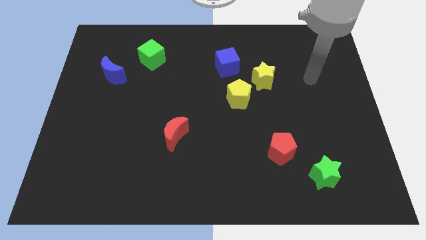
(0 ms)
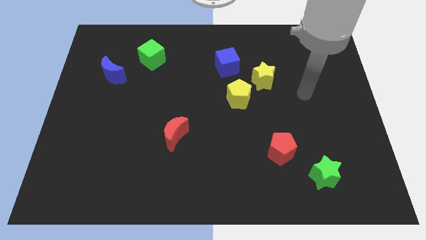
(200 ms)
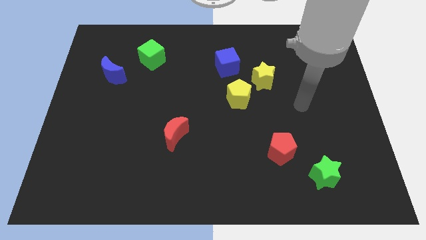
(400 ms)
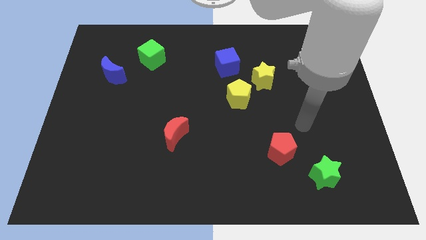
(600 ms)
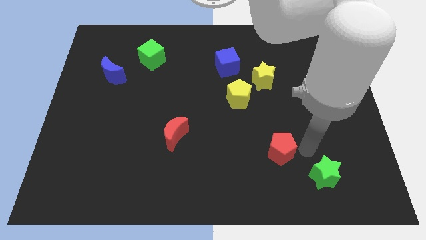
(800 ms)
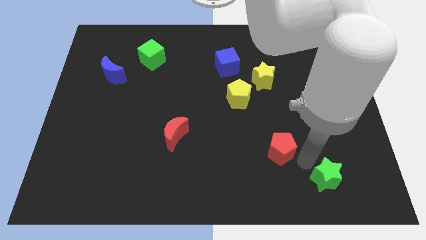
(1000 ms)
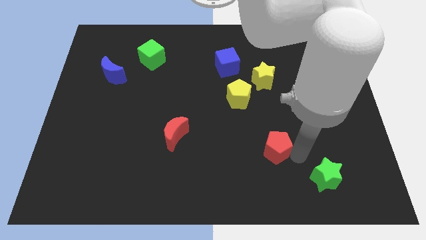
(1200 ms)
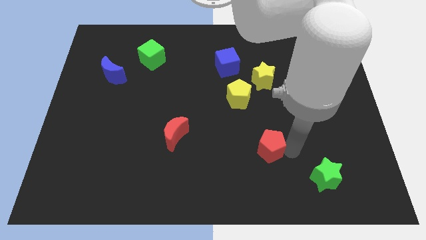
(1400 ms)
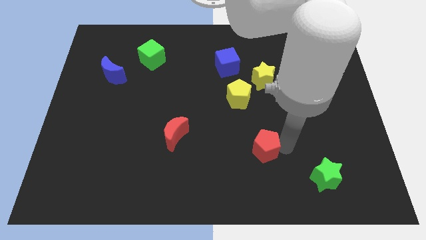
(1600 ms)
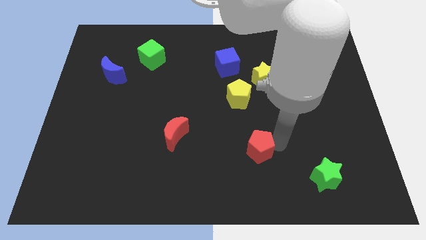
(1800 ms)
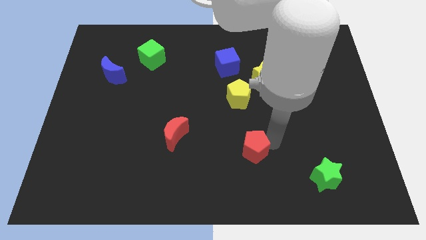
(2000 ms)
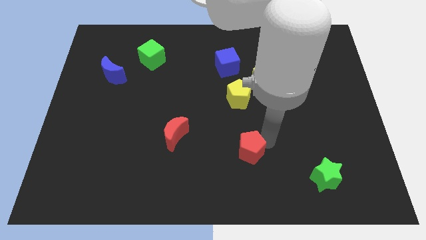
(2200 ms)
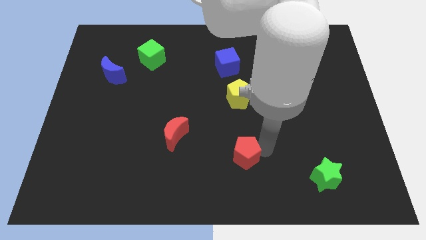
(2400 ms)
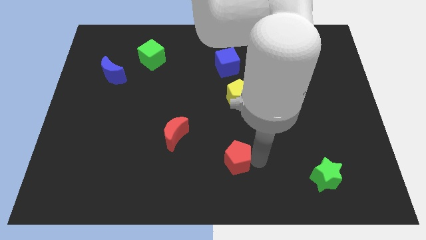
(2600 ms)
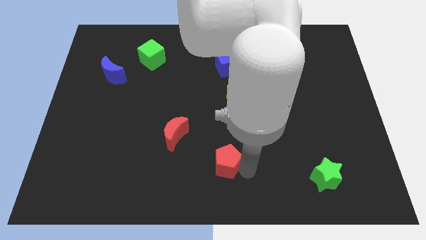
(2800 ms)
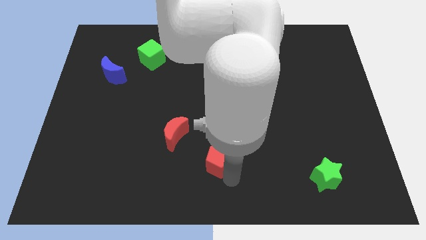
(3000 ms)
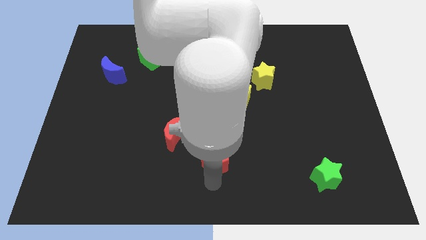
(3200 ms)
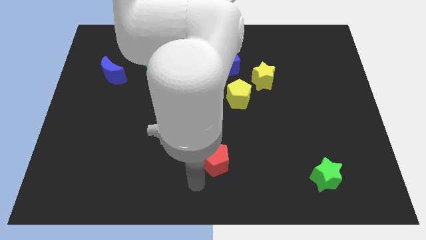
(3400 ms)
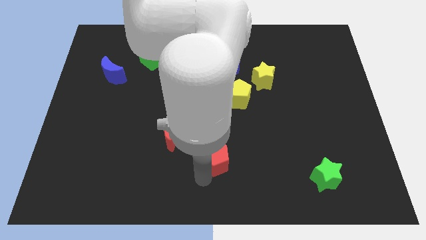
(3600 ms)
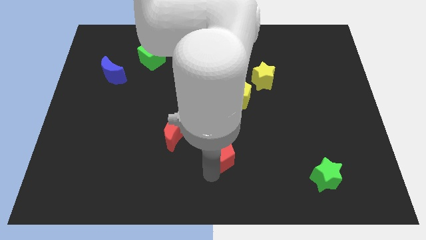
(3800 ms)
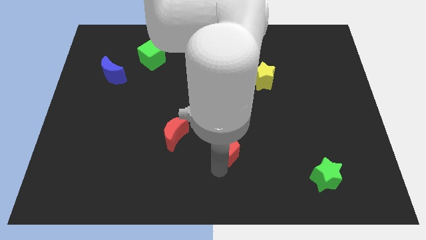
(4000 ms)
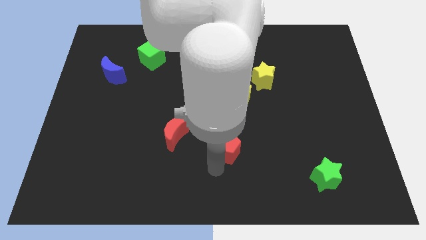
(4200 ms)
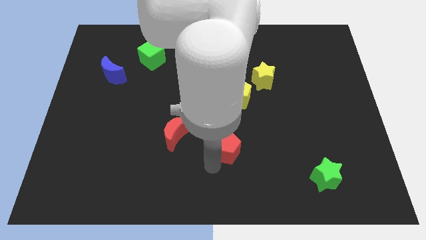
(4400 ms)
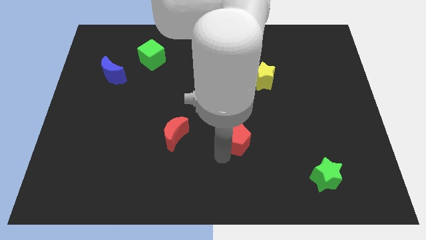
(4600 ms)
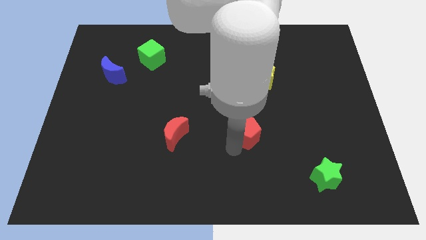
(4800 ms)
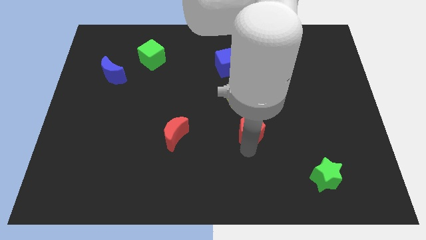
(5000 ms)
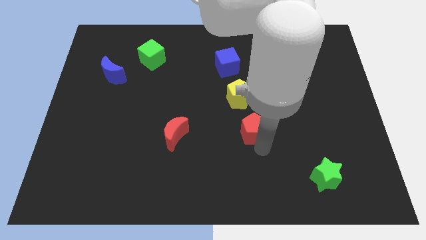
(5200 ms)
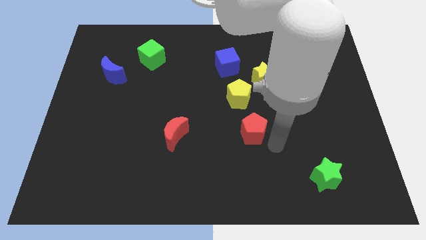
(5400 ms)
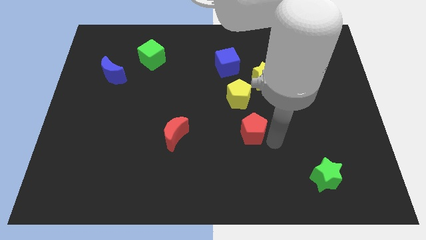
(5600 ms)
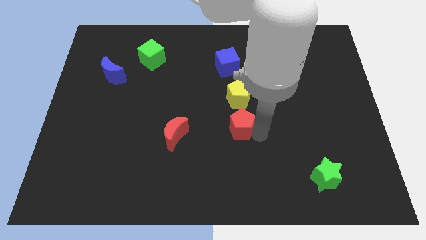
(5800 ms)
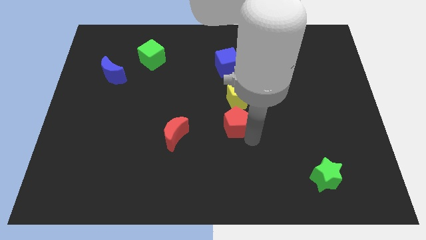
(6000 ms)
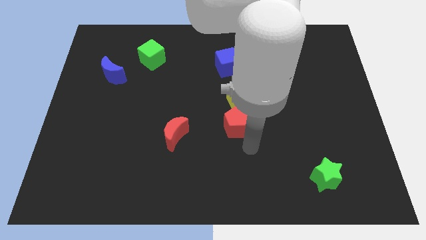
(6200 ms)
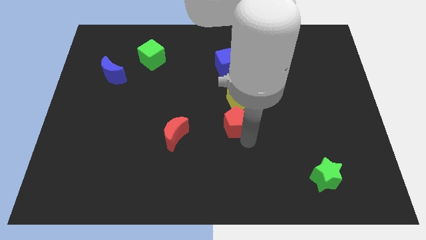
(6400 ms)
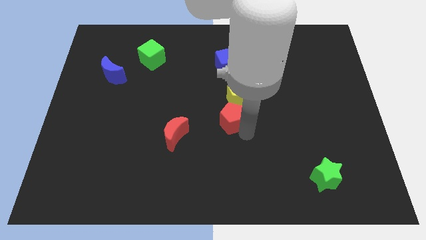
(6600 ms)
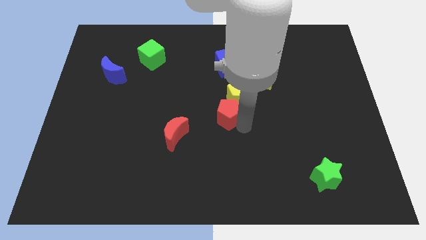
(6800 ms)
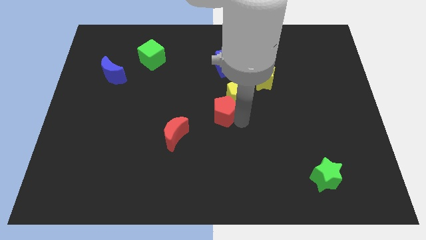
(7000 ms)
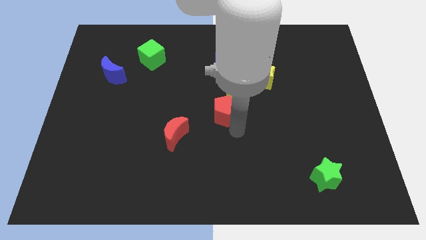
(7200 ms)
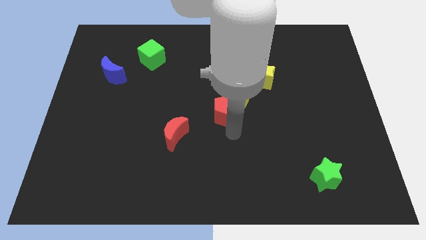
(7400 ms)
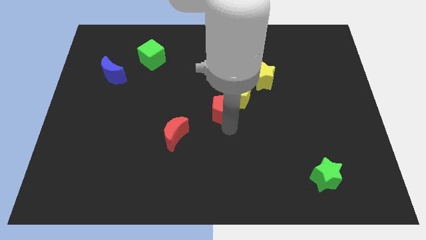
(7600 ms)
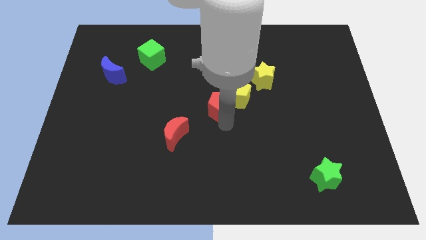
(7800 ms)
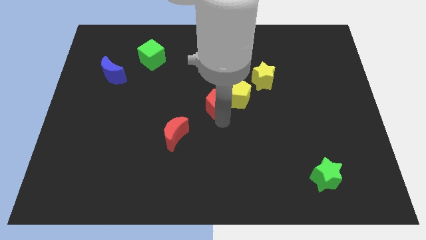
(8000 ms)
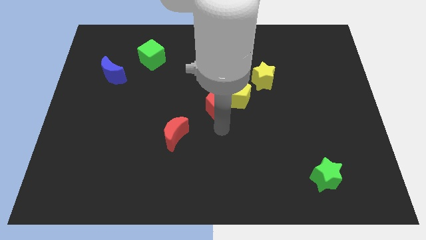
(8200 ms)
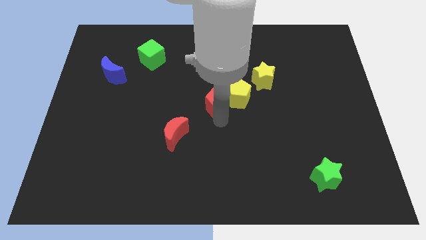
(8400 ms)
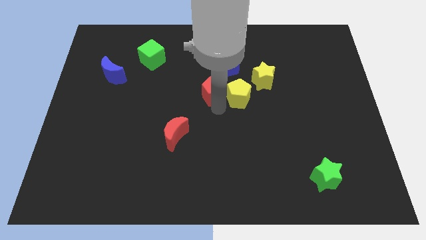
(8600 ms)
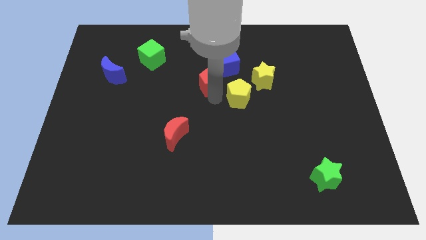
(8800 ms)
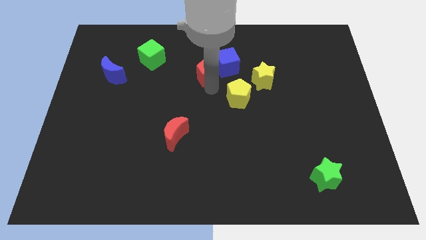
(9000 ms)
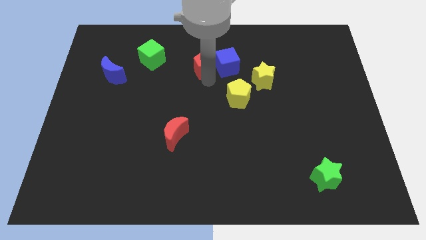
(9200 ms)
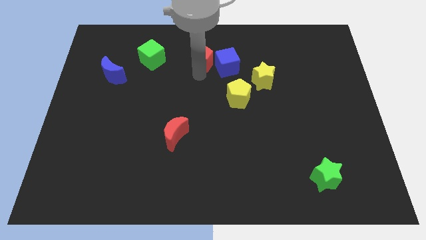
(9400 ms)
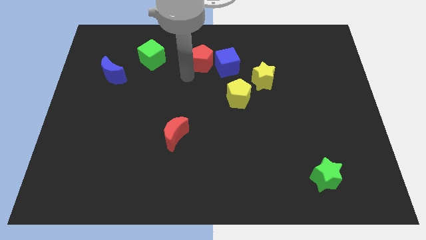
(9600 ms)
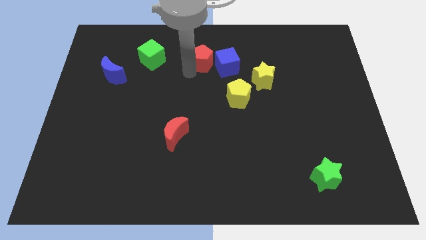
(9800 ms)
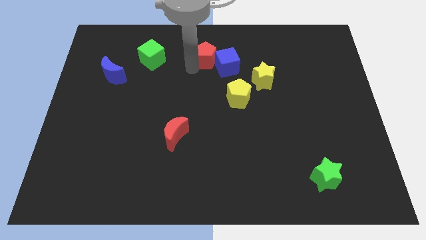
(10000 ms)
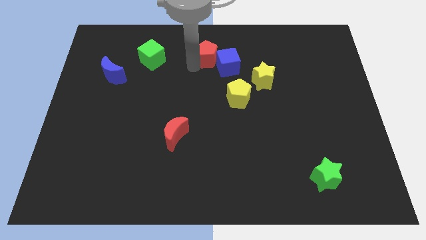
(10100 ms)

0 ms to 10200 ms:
move the red pentagon to the top
